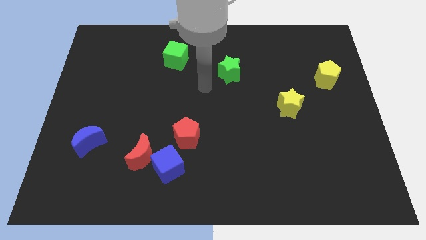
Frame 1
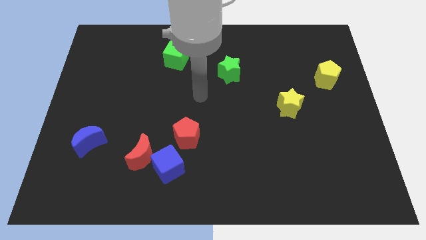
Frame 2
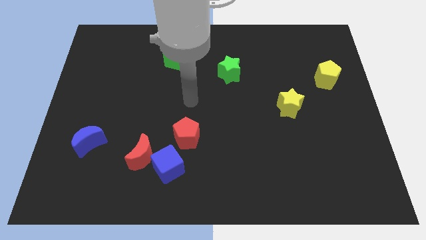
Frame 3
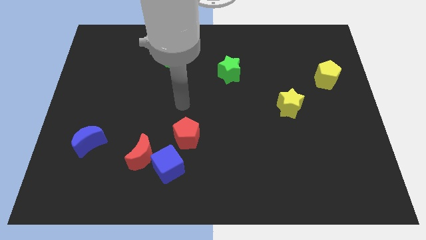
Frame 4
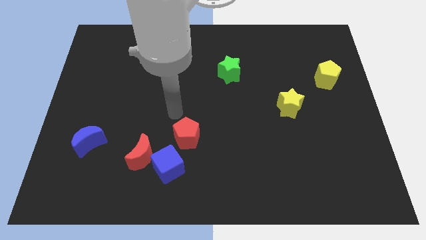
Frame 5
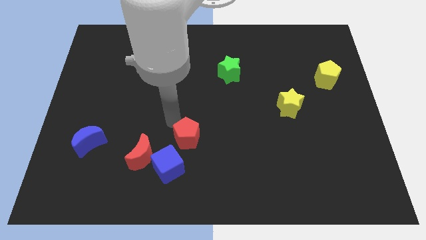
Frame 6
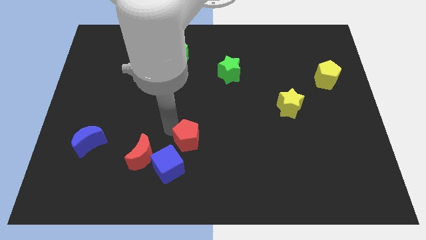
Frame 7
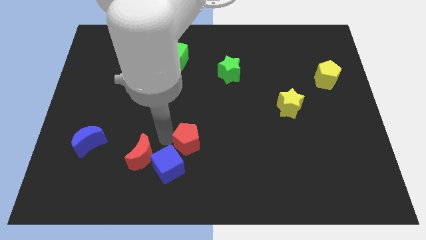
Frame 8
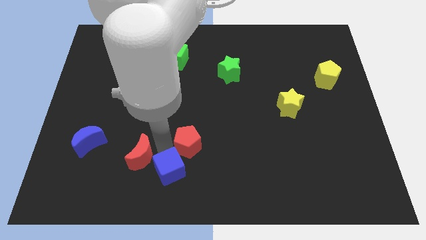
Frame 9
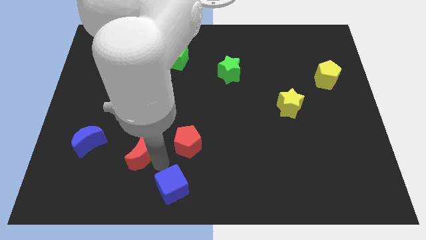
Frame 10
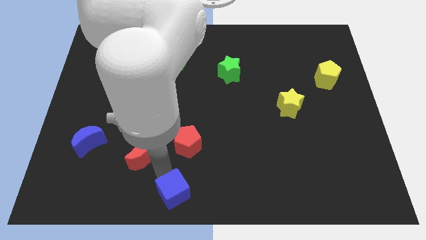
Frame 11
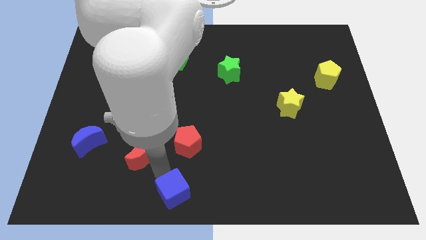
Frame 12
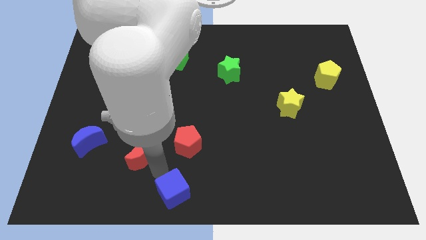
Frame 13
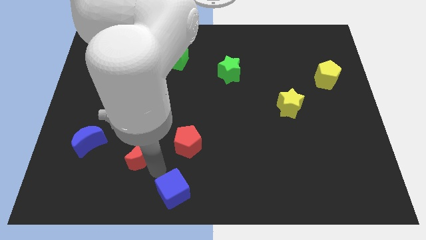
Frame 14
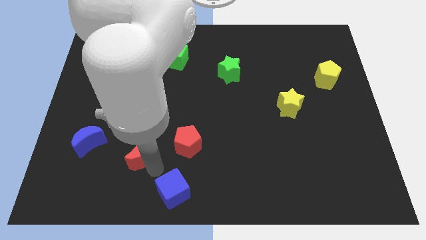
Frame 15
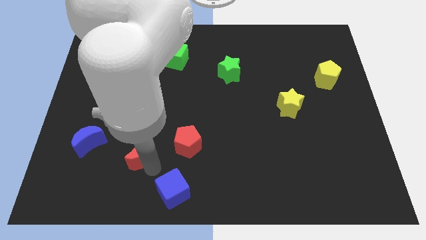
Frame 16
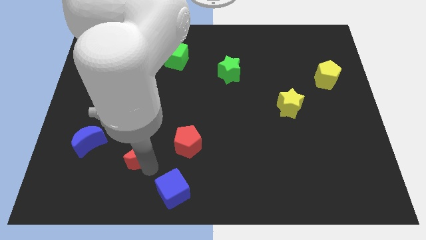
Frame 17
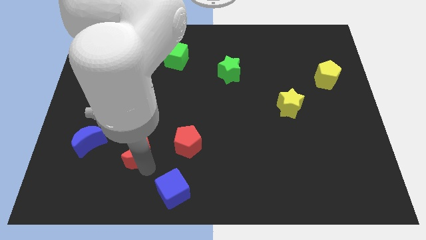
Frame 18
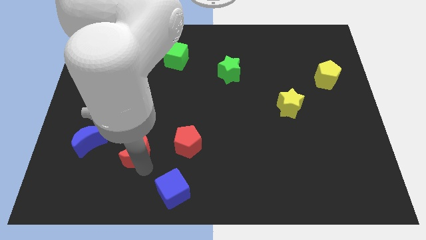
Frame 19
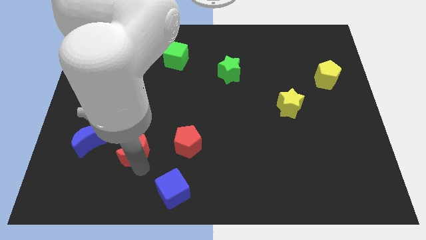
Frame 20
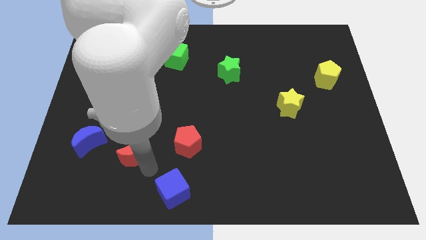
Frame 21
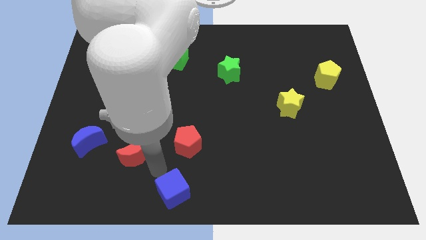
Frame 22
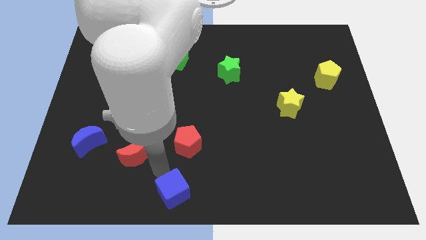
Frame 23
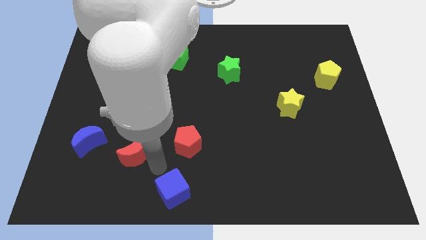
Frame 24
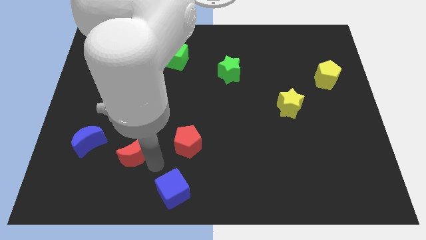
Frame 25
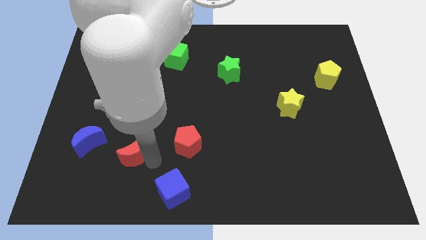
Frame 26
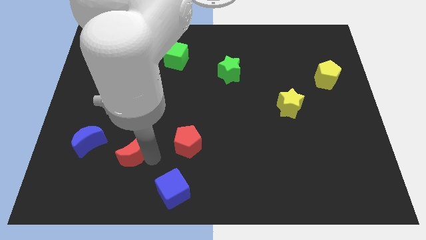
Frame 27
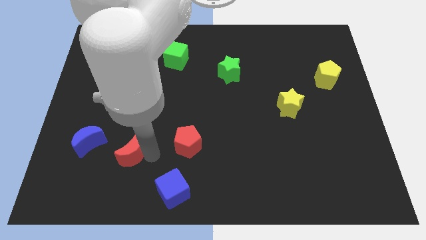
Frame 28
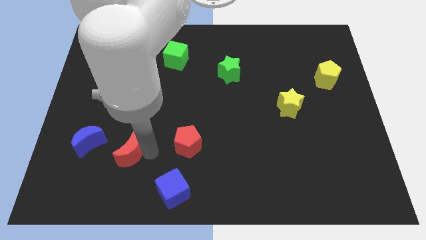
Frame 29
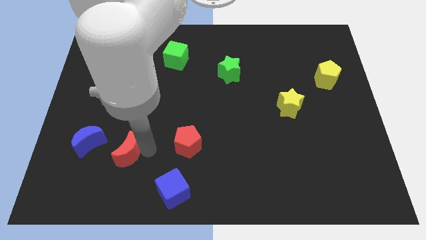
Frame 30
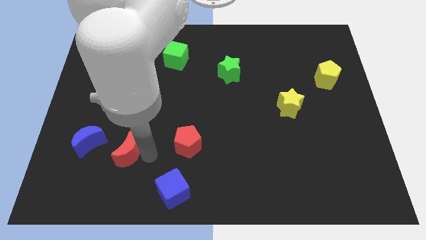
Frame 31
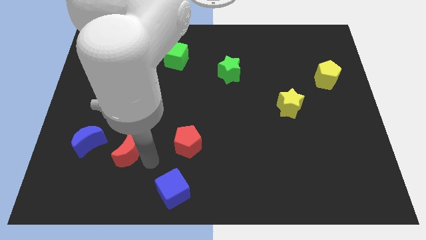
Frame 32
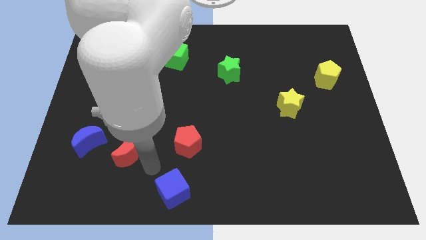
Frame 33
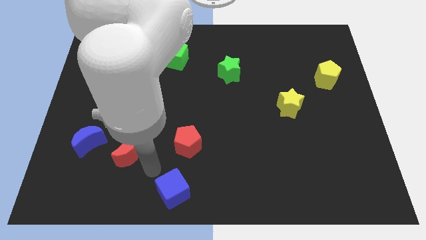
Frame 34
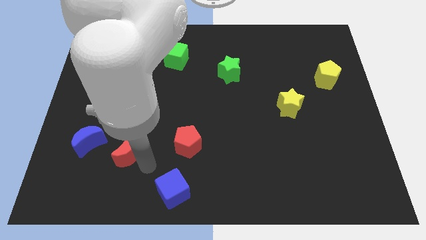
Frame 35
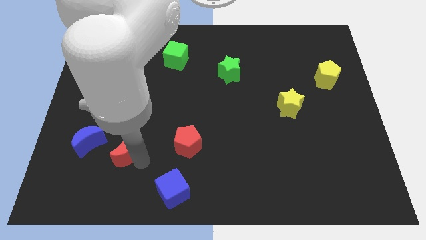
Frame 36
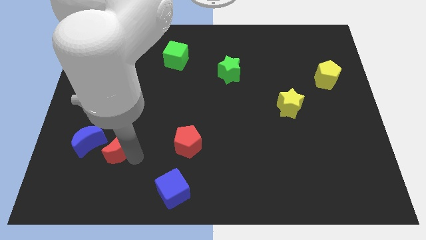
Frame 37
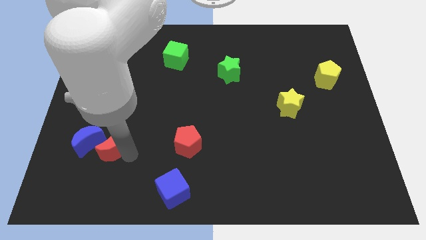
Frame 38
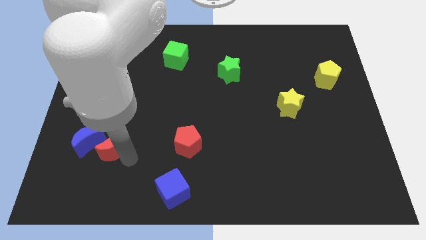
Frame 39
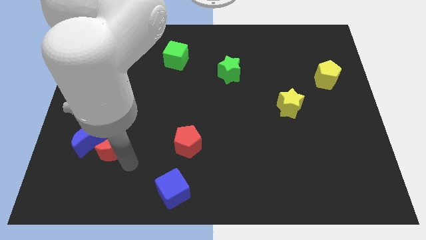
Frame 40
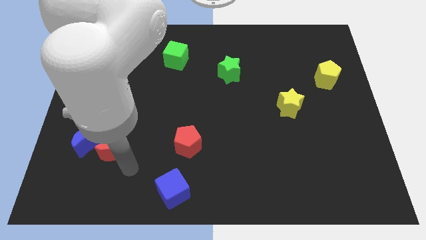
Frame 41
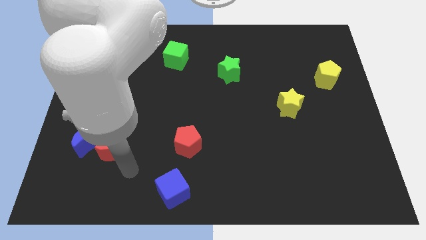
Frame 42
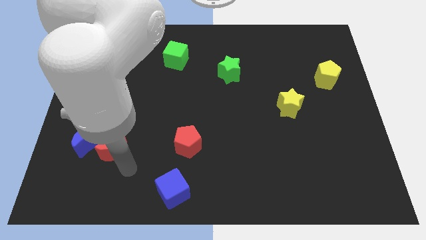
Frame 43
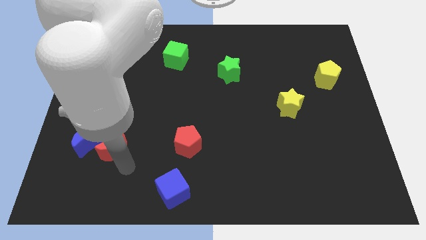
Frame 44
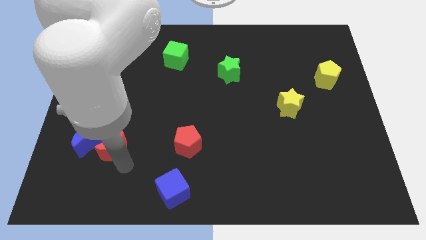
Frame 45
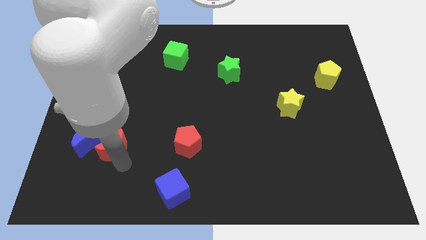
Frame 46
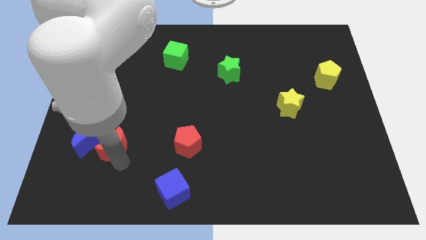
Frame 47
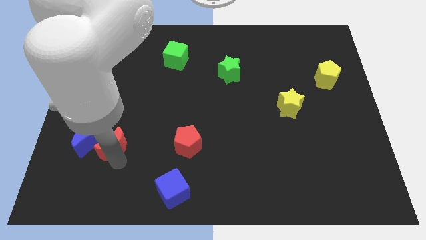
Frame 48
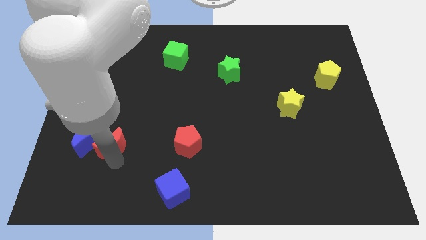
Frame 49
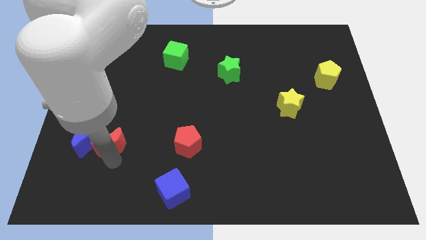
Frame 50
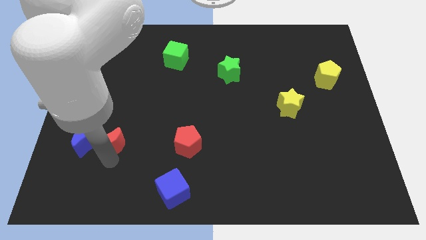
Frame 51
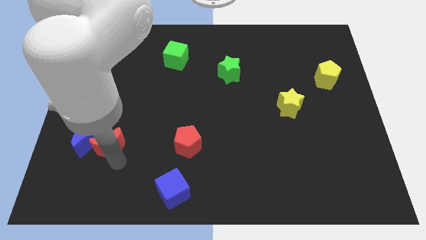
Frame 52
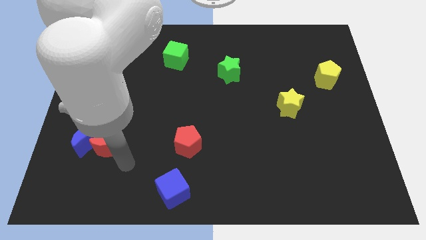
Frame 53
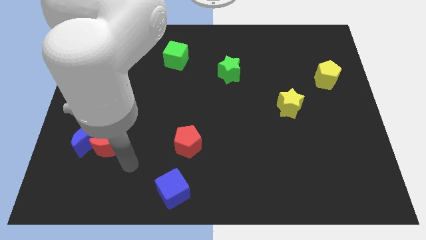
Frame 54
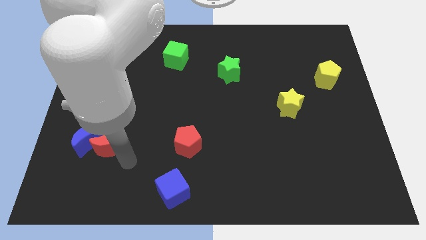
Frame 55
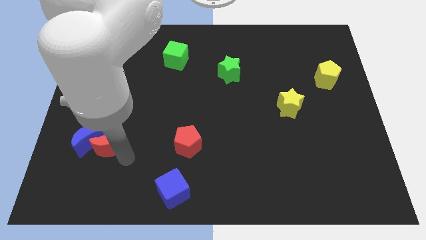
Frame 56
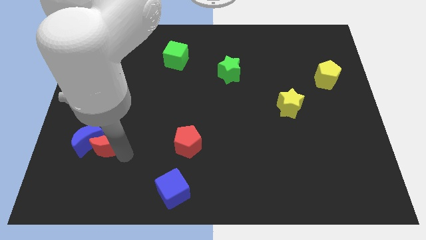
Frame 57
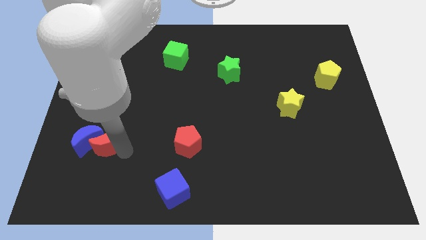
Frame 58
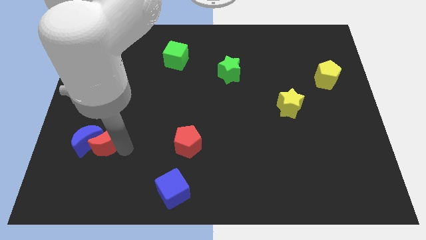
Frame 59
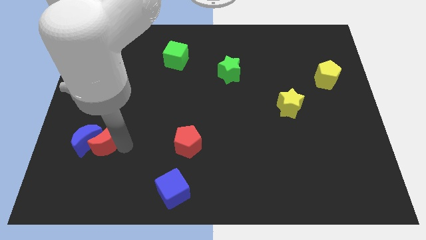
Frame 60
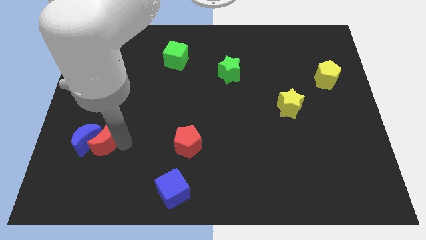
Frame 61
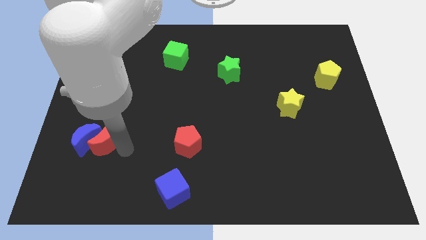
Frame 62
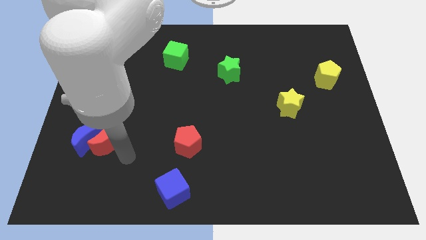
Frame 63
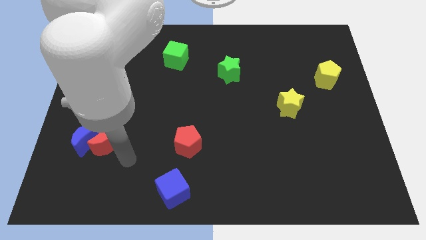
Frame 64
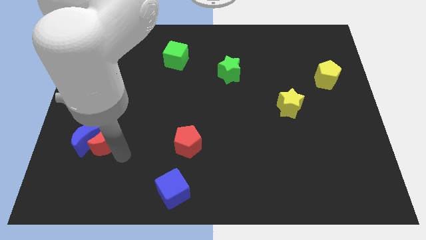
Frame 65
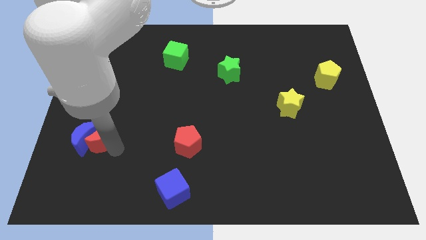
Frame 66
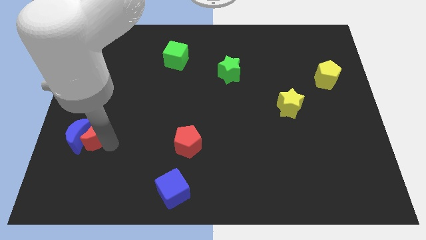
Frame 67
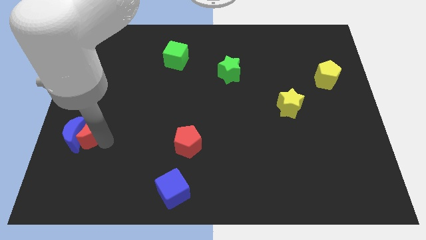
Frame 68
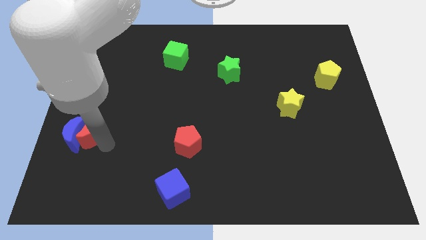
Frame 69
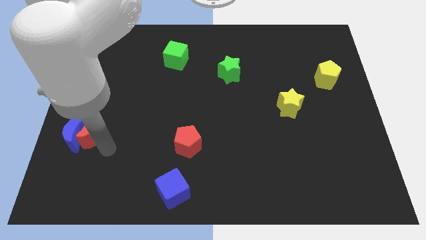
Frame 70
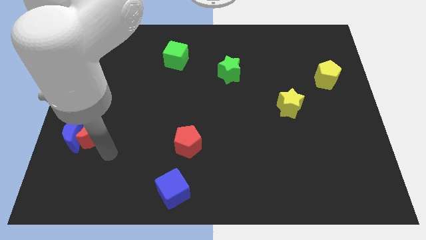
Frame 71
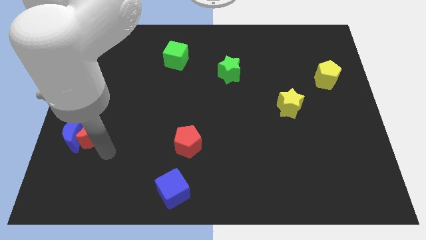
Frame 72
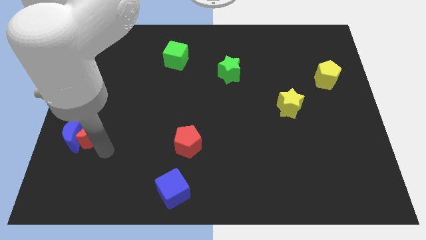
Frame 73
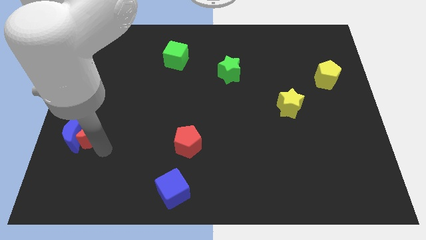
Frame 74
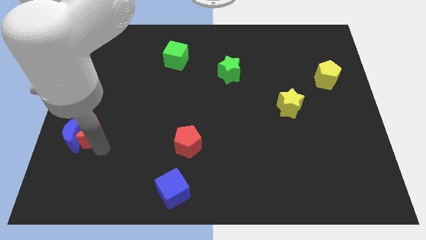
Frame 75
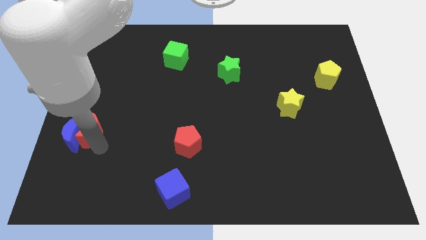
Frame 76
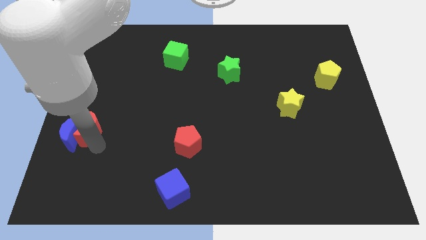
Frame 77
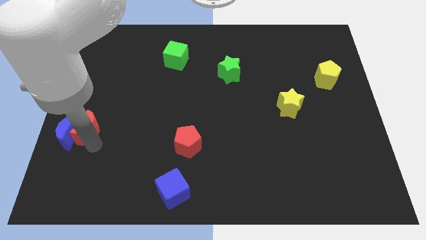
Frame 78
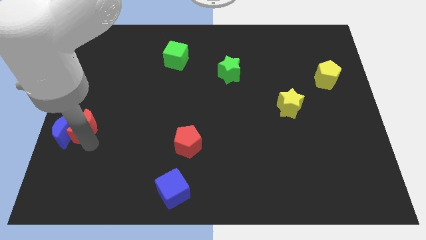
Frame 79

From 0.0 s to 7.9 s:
push the red moon to the center left
